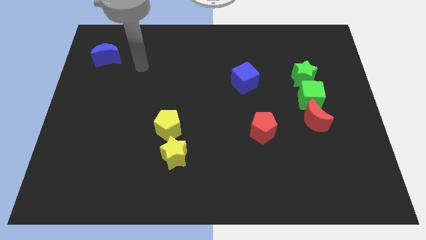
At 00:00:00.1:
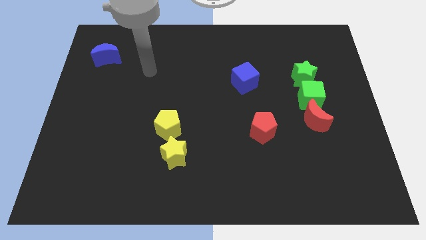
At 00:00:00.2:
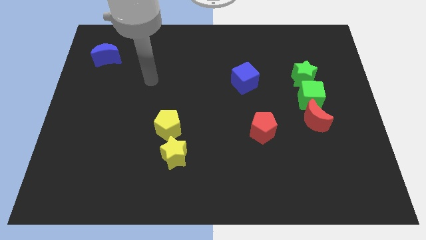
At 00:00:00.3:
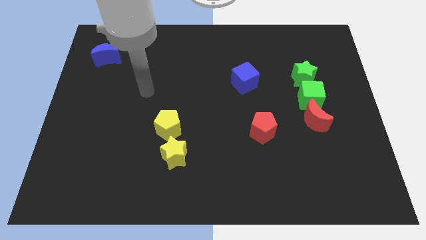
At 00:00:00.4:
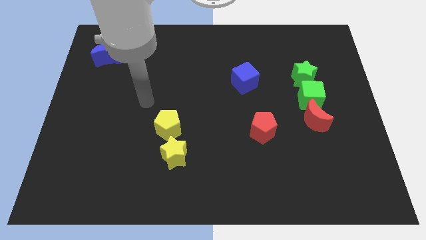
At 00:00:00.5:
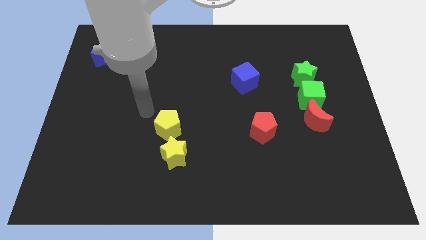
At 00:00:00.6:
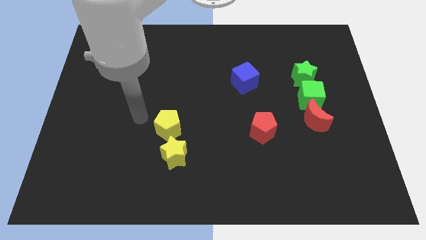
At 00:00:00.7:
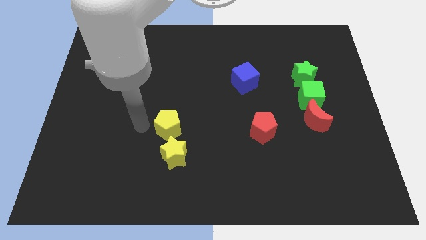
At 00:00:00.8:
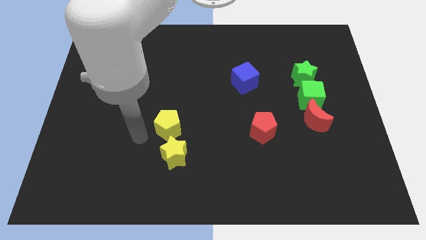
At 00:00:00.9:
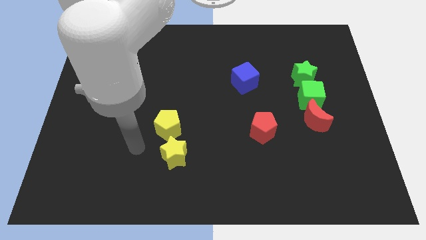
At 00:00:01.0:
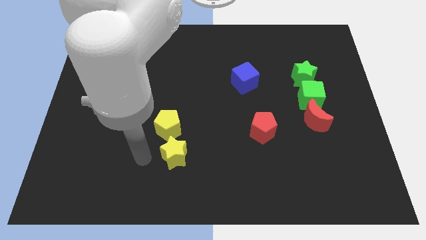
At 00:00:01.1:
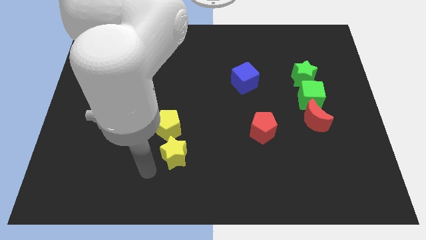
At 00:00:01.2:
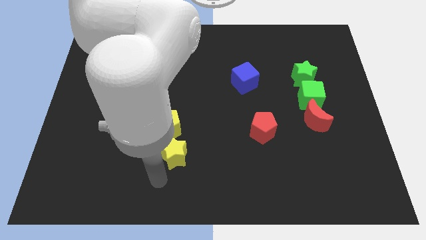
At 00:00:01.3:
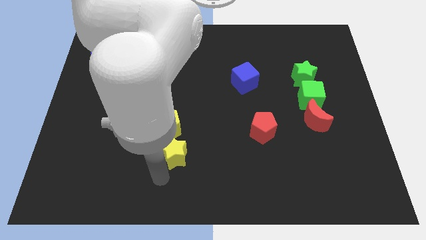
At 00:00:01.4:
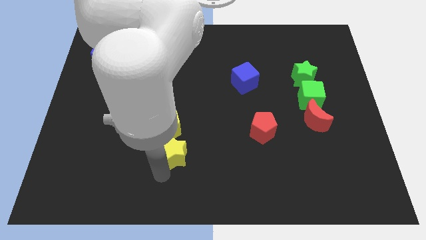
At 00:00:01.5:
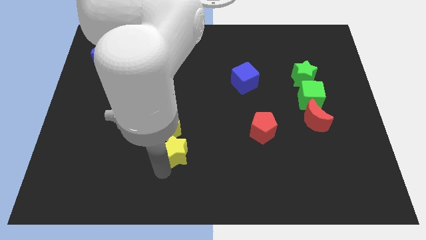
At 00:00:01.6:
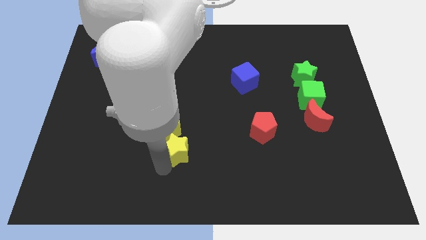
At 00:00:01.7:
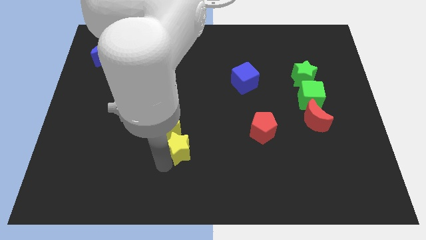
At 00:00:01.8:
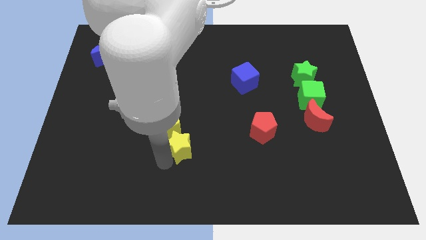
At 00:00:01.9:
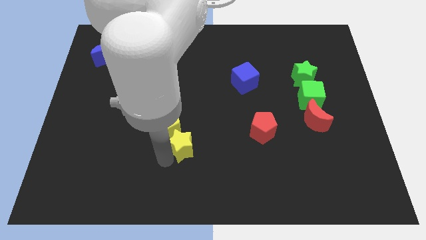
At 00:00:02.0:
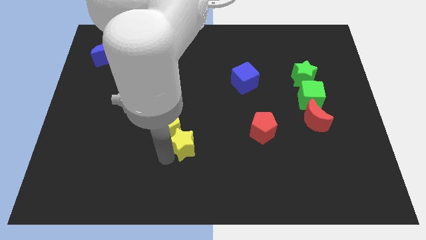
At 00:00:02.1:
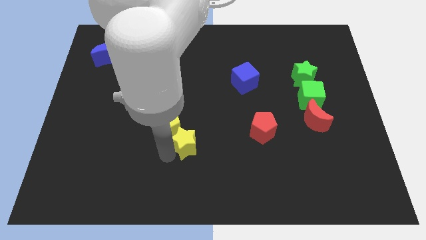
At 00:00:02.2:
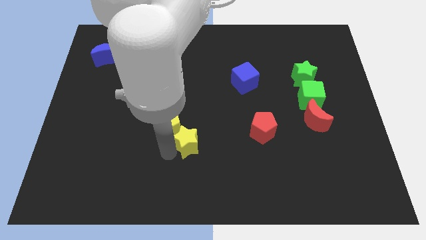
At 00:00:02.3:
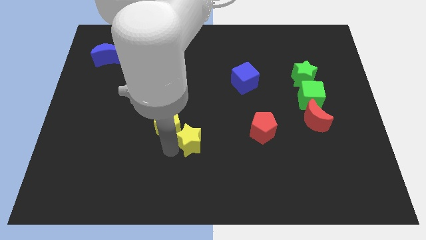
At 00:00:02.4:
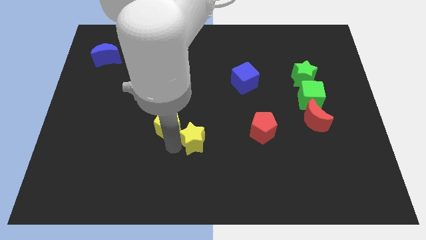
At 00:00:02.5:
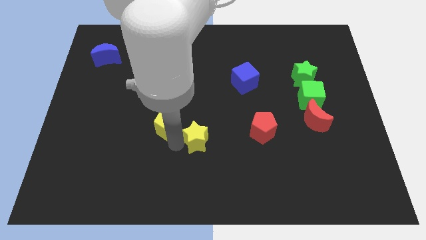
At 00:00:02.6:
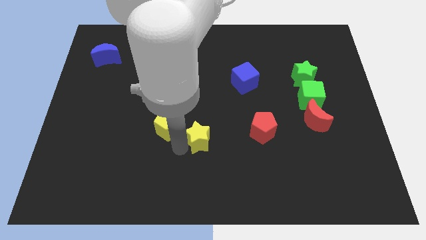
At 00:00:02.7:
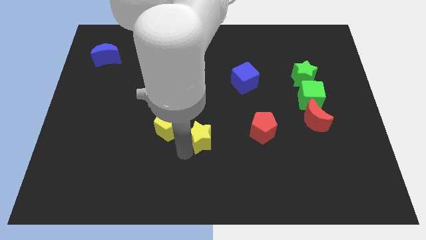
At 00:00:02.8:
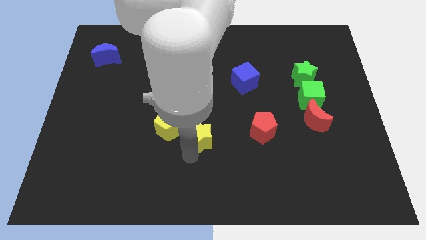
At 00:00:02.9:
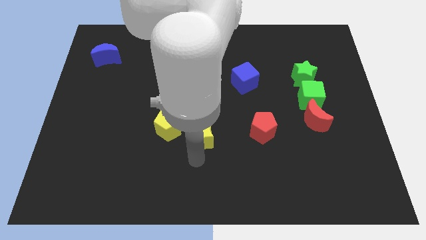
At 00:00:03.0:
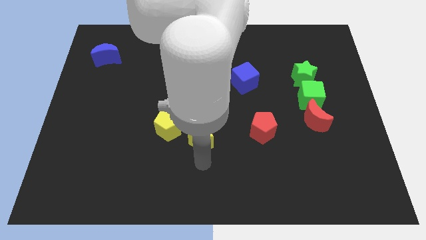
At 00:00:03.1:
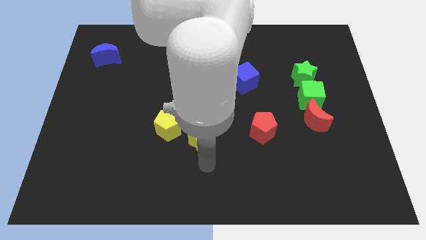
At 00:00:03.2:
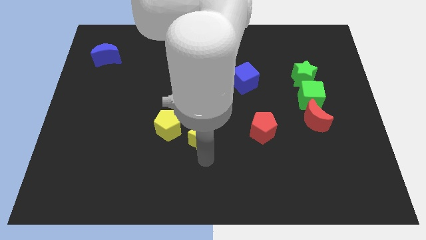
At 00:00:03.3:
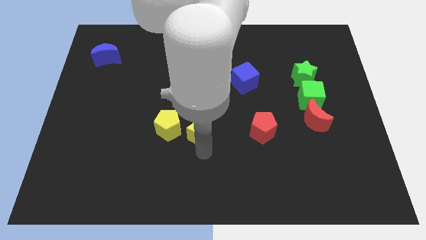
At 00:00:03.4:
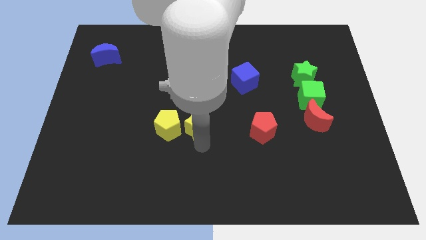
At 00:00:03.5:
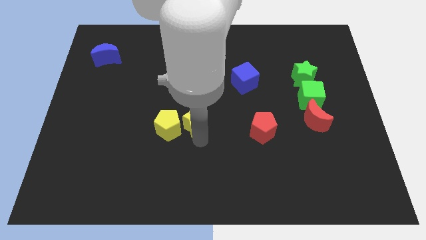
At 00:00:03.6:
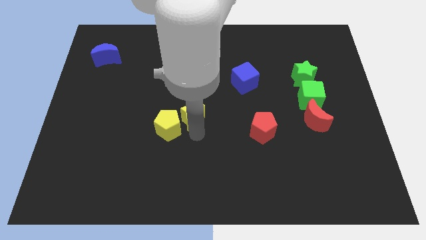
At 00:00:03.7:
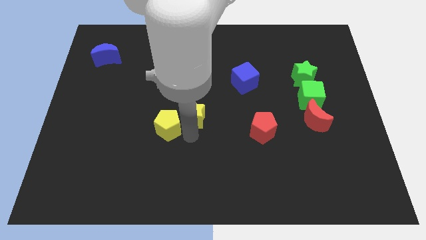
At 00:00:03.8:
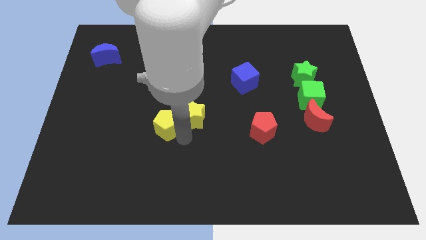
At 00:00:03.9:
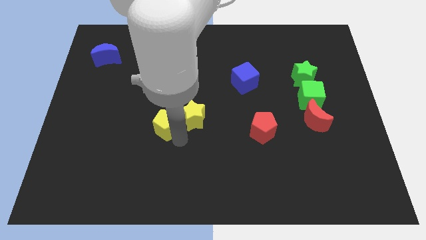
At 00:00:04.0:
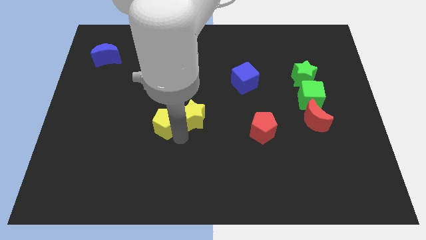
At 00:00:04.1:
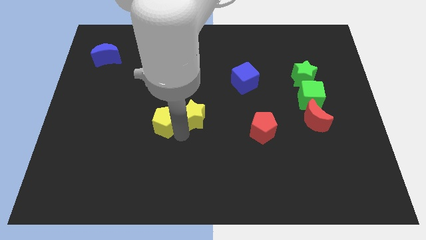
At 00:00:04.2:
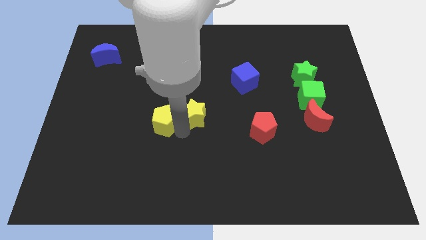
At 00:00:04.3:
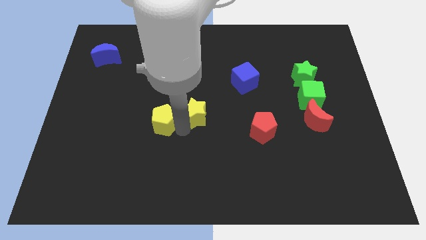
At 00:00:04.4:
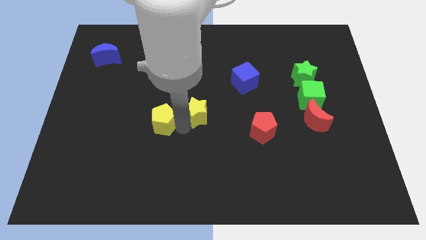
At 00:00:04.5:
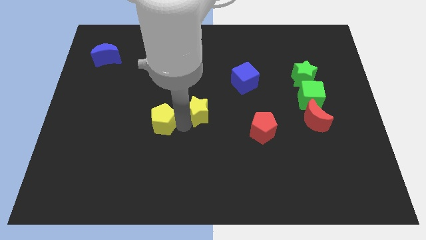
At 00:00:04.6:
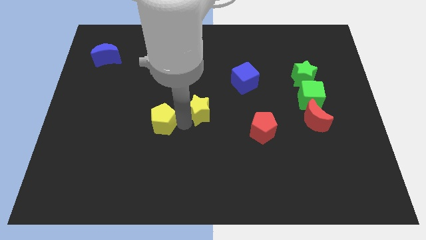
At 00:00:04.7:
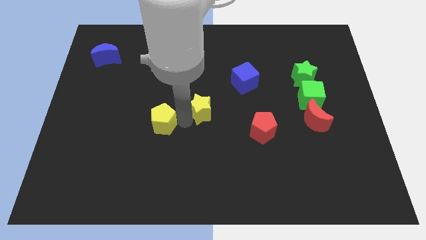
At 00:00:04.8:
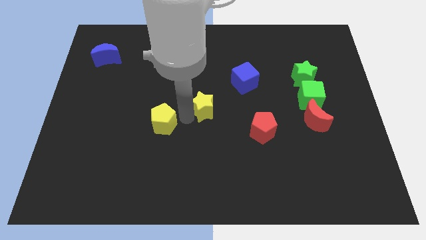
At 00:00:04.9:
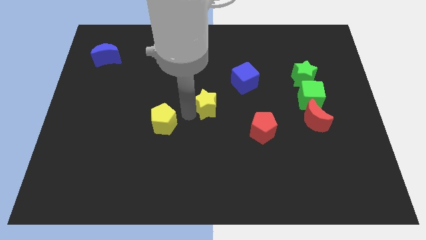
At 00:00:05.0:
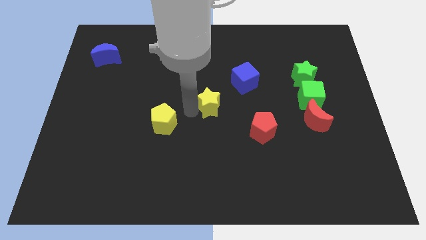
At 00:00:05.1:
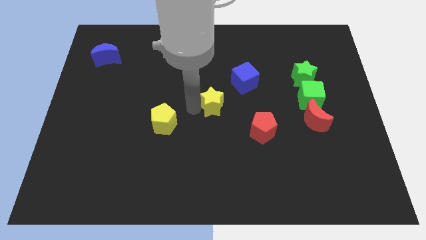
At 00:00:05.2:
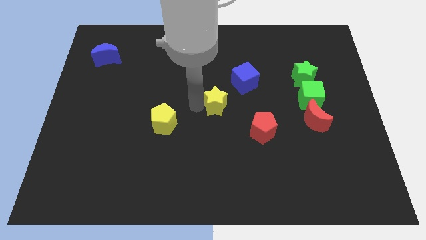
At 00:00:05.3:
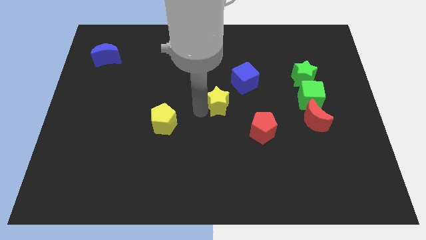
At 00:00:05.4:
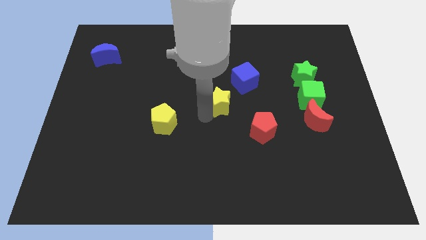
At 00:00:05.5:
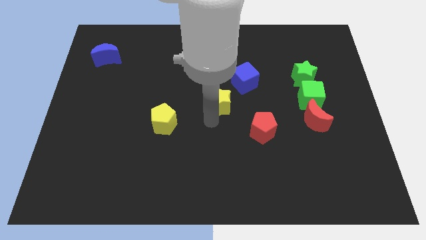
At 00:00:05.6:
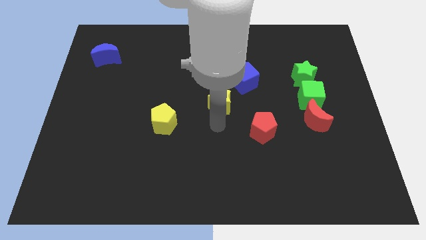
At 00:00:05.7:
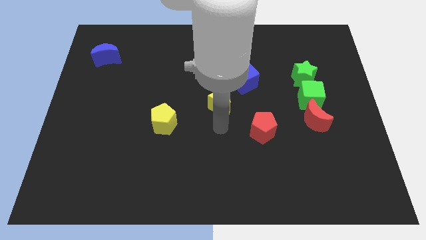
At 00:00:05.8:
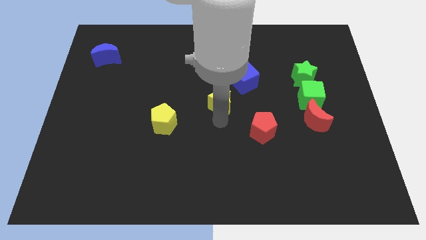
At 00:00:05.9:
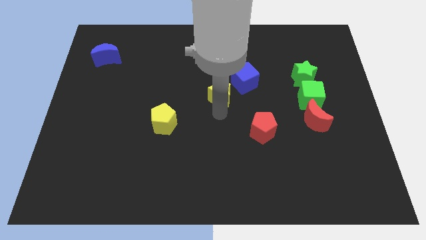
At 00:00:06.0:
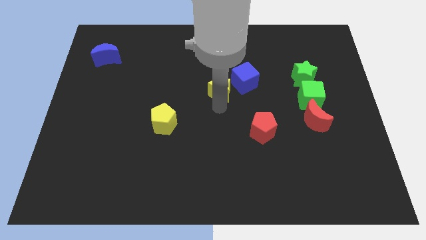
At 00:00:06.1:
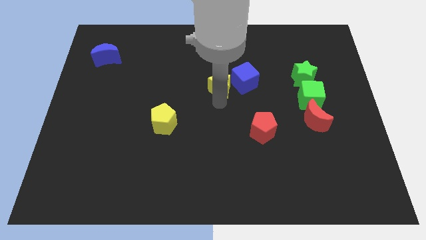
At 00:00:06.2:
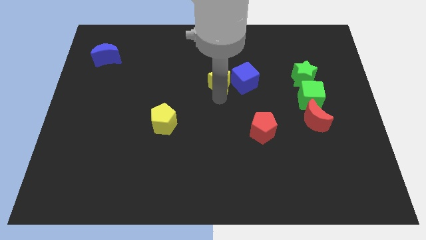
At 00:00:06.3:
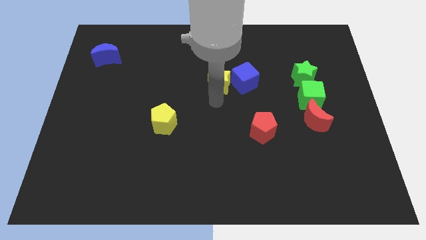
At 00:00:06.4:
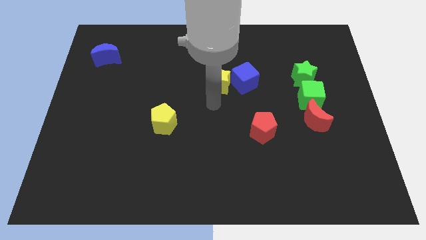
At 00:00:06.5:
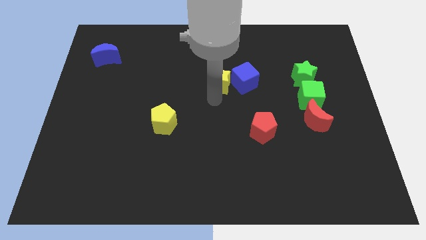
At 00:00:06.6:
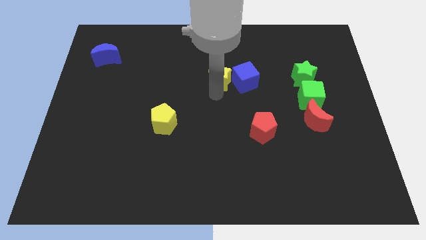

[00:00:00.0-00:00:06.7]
move the yellow star diagonally up and to the left of the blue cube

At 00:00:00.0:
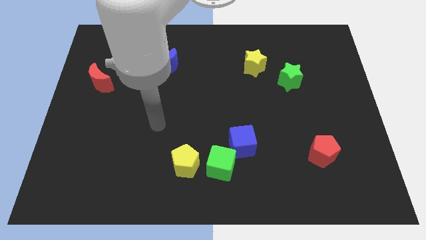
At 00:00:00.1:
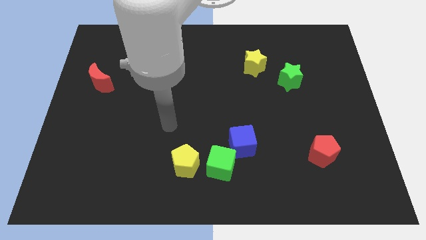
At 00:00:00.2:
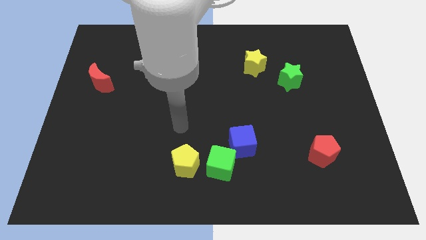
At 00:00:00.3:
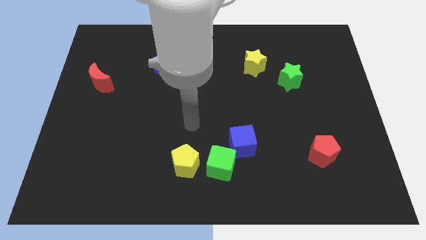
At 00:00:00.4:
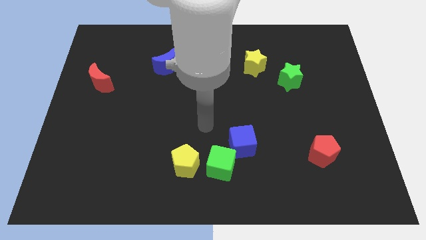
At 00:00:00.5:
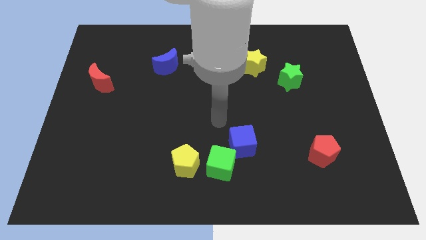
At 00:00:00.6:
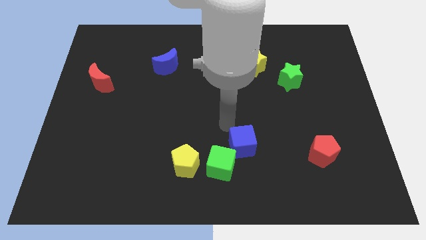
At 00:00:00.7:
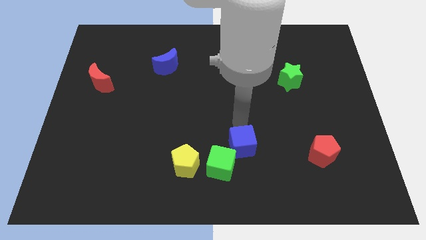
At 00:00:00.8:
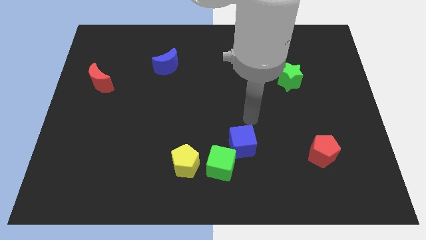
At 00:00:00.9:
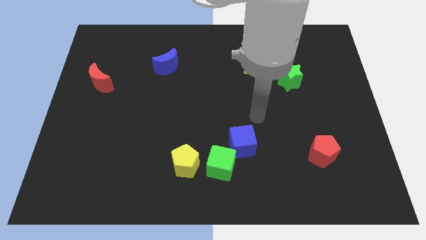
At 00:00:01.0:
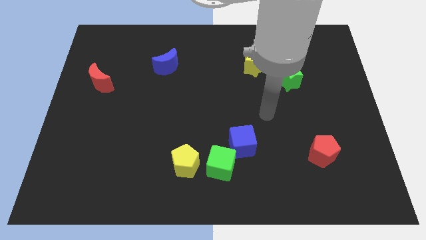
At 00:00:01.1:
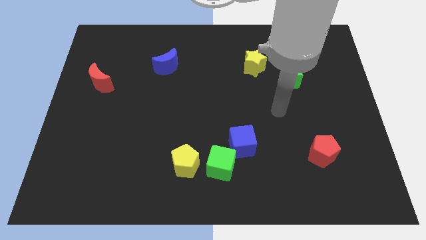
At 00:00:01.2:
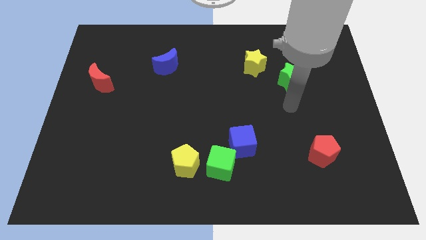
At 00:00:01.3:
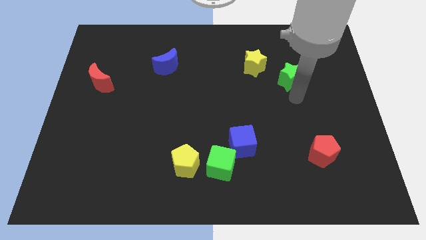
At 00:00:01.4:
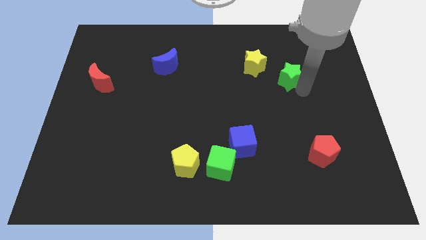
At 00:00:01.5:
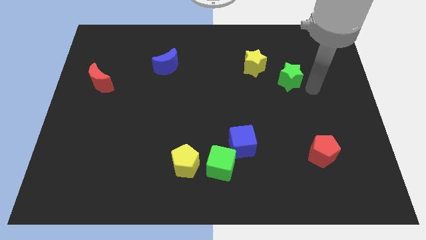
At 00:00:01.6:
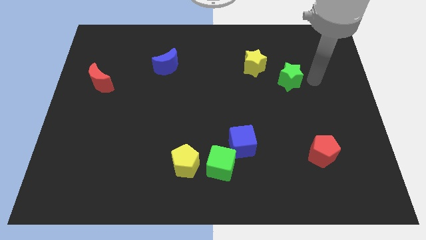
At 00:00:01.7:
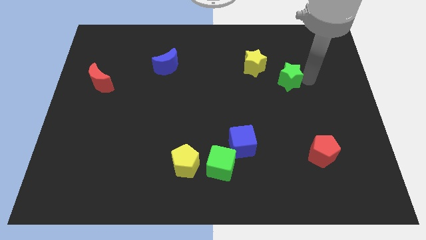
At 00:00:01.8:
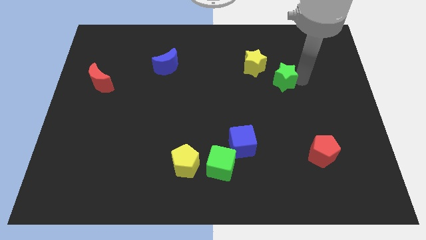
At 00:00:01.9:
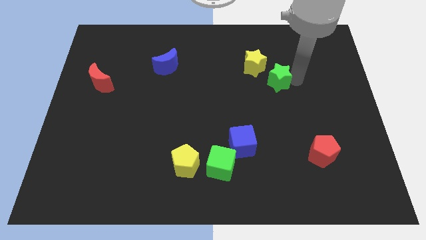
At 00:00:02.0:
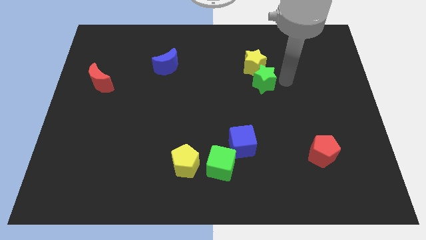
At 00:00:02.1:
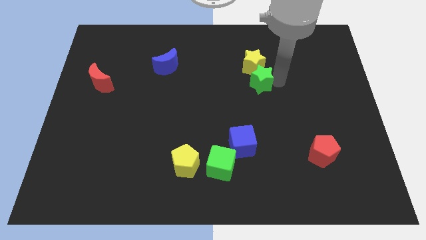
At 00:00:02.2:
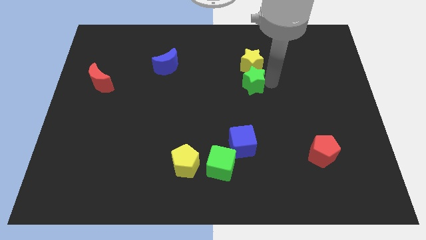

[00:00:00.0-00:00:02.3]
put the green star to the bottom left side of the yellow star
